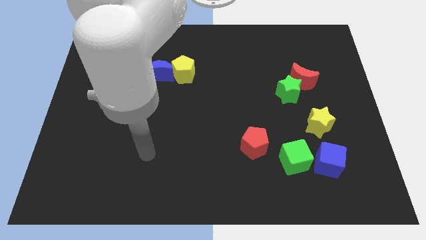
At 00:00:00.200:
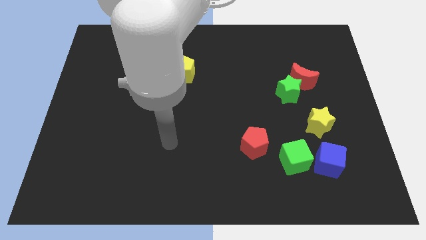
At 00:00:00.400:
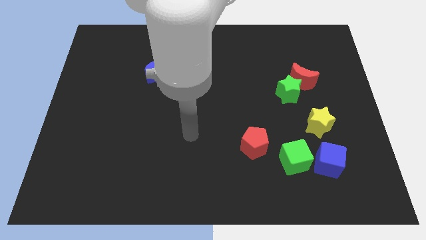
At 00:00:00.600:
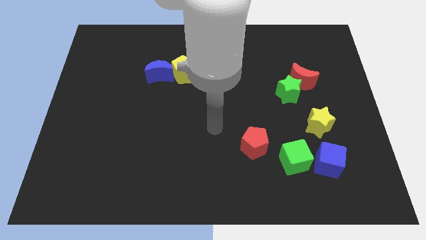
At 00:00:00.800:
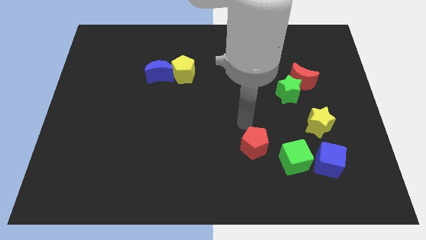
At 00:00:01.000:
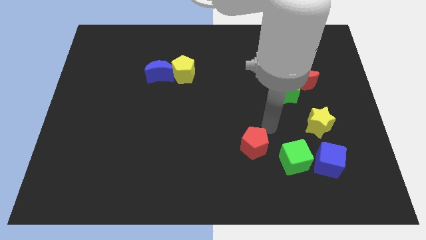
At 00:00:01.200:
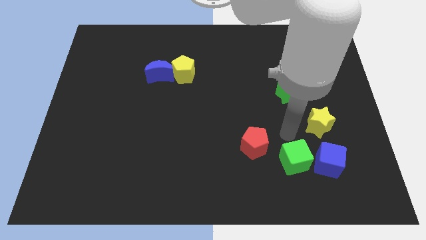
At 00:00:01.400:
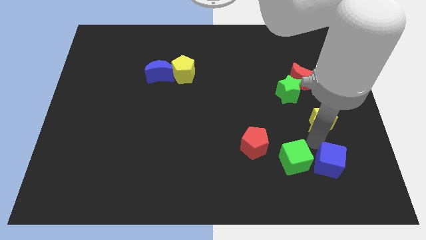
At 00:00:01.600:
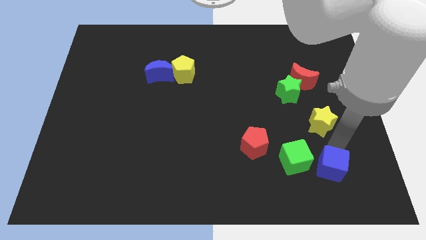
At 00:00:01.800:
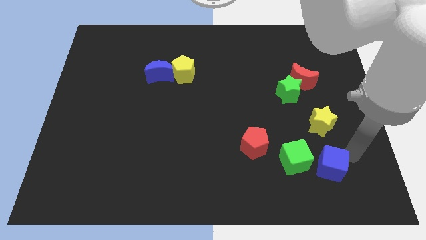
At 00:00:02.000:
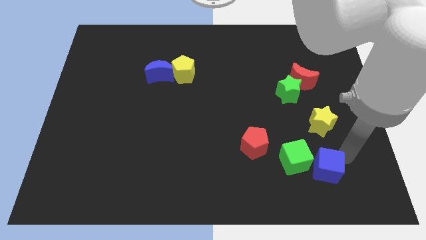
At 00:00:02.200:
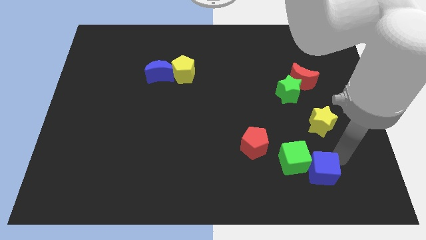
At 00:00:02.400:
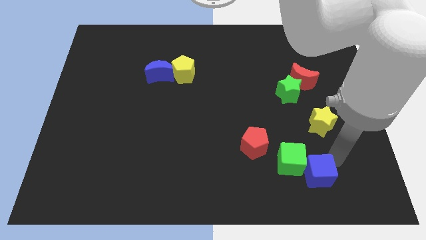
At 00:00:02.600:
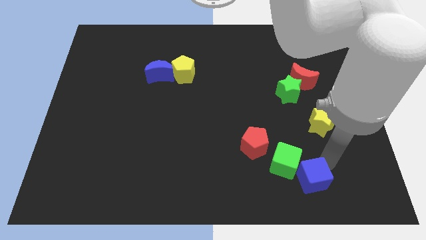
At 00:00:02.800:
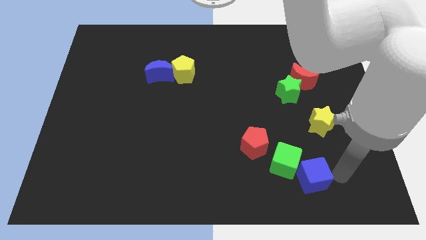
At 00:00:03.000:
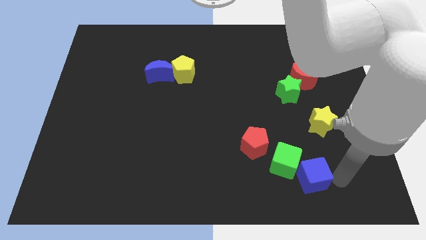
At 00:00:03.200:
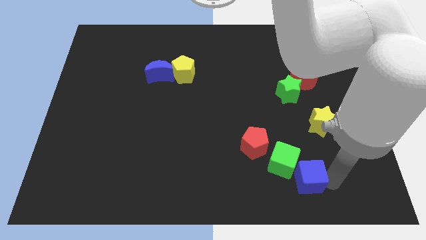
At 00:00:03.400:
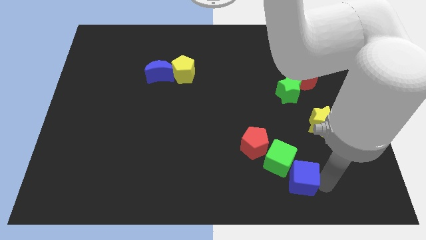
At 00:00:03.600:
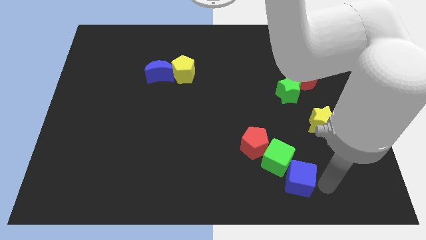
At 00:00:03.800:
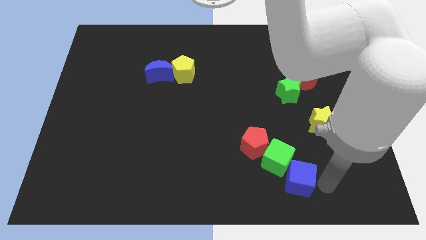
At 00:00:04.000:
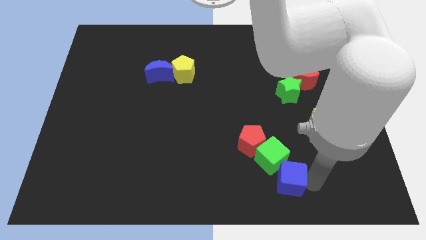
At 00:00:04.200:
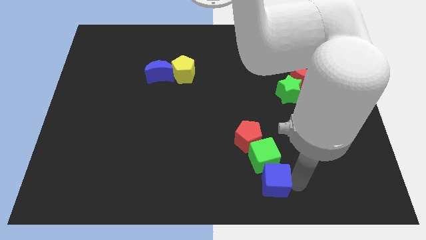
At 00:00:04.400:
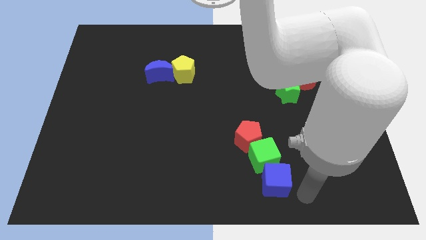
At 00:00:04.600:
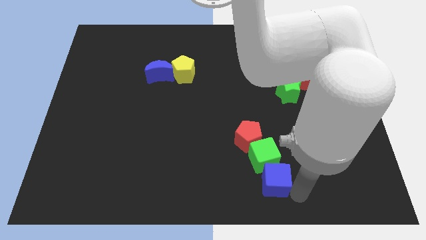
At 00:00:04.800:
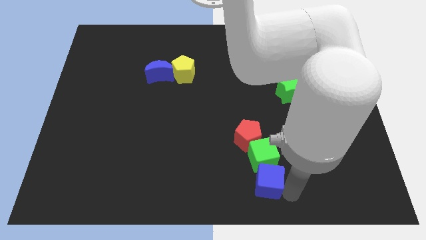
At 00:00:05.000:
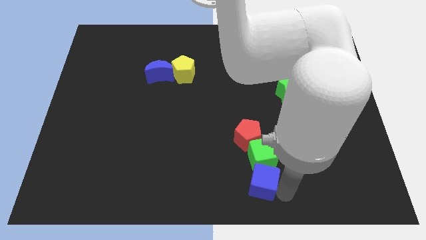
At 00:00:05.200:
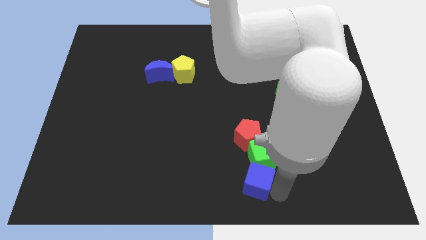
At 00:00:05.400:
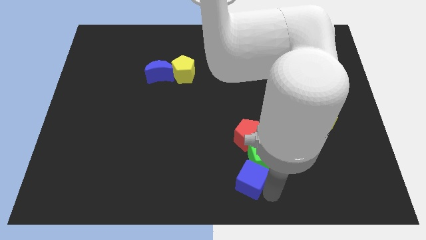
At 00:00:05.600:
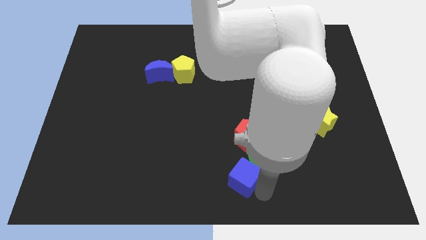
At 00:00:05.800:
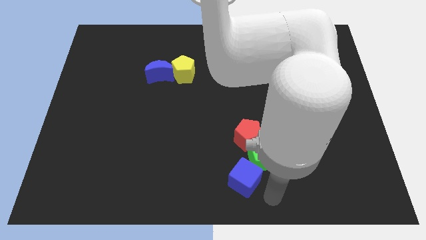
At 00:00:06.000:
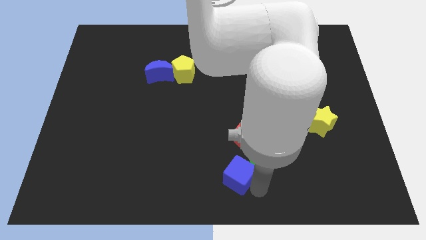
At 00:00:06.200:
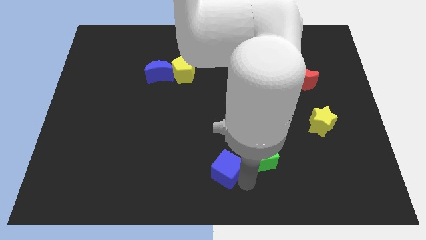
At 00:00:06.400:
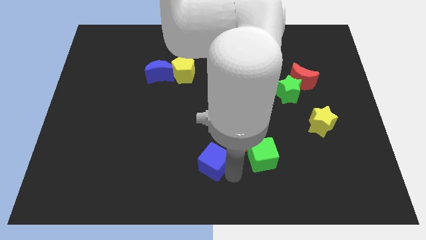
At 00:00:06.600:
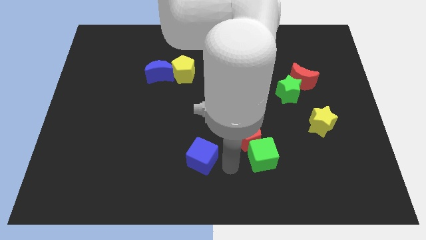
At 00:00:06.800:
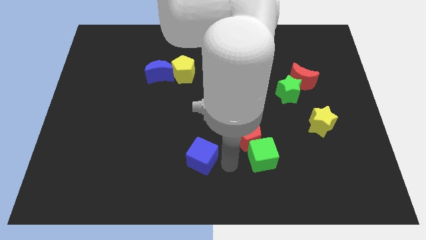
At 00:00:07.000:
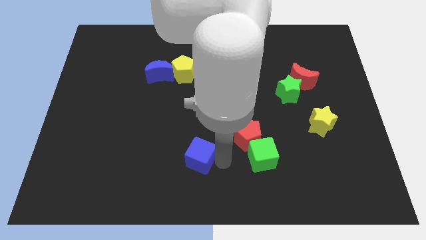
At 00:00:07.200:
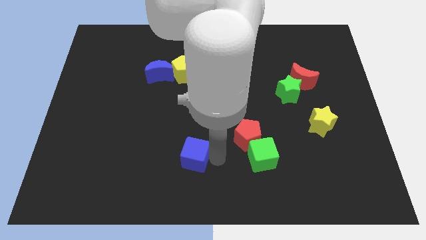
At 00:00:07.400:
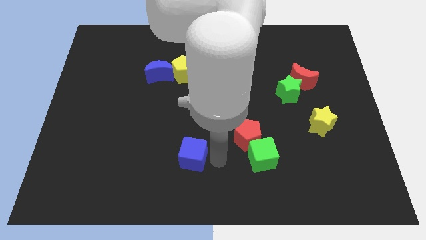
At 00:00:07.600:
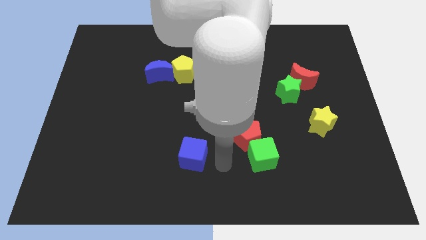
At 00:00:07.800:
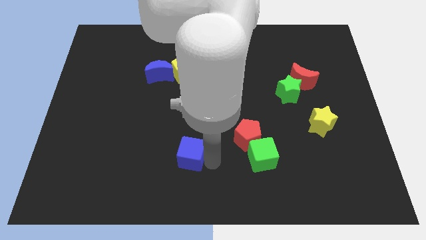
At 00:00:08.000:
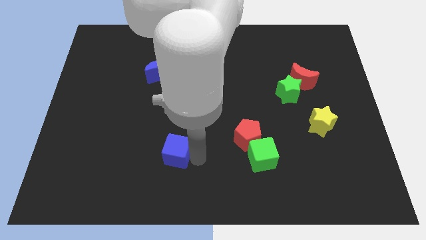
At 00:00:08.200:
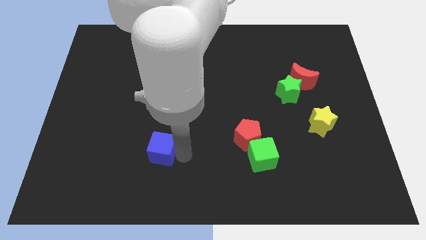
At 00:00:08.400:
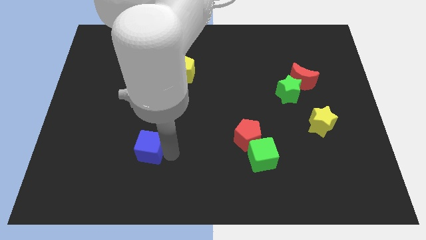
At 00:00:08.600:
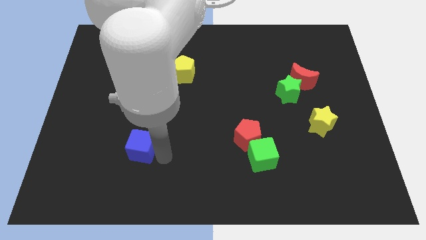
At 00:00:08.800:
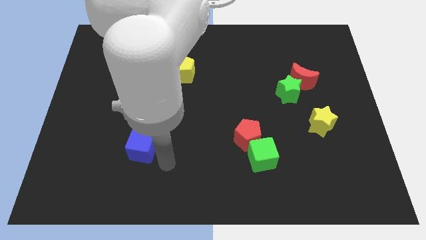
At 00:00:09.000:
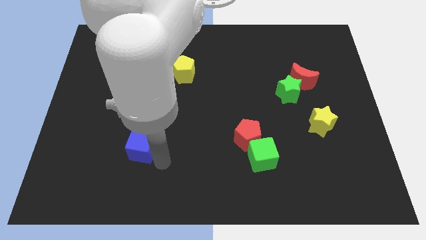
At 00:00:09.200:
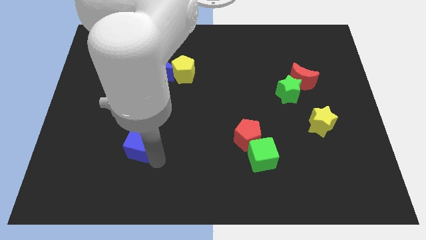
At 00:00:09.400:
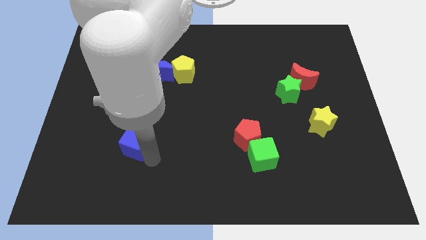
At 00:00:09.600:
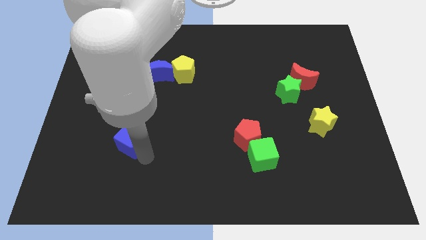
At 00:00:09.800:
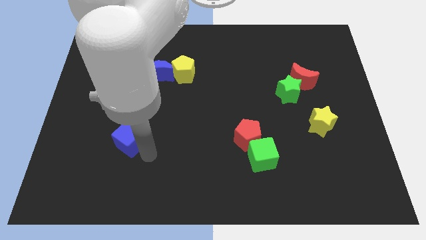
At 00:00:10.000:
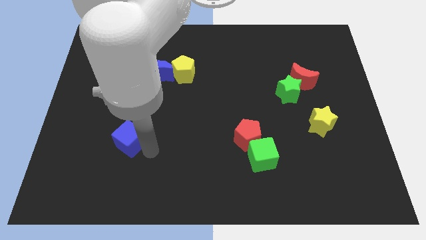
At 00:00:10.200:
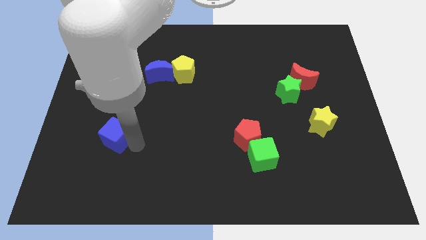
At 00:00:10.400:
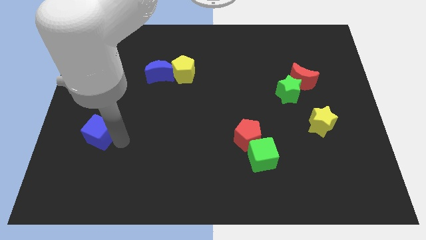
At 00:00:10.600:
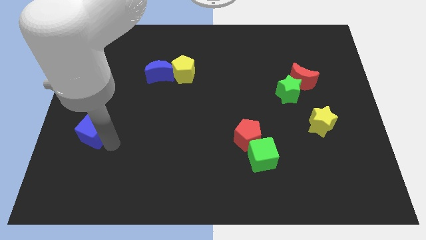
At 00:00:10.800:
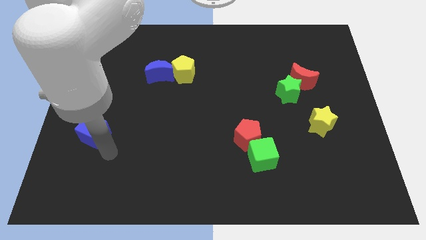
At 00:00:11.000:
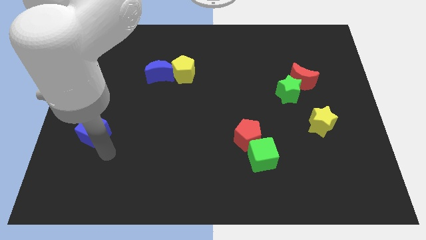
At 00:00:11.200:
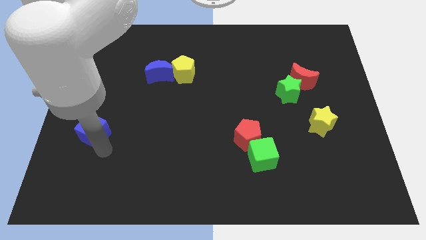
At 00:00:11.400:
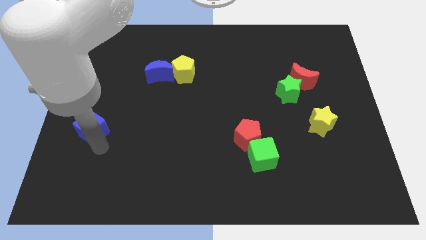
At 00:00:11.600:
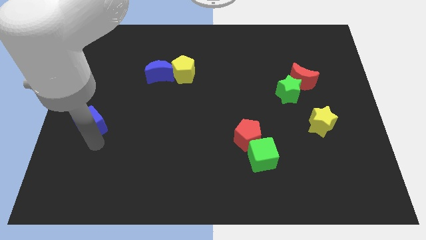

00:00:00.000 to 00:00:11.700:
push the blue cube to the center left
